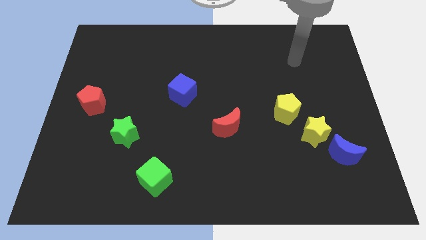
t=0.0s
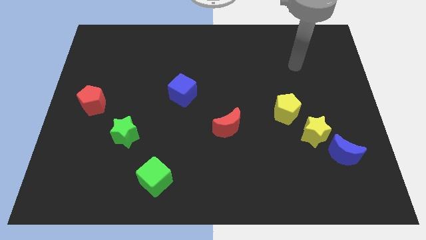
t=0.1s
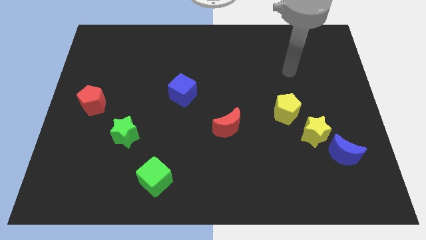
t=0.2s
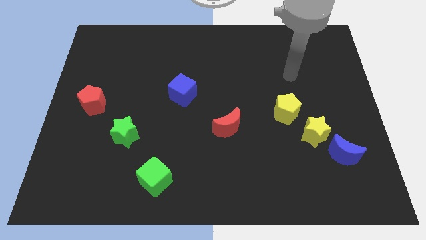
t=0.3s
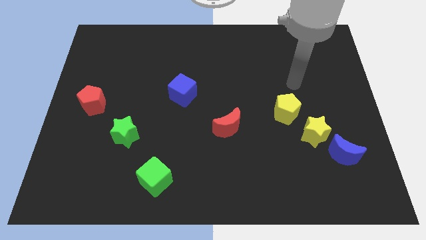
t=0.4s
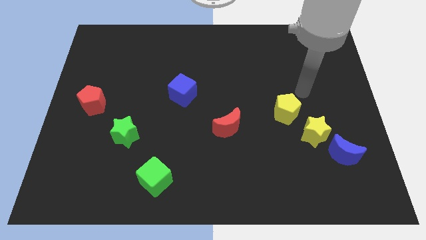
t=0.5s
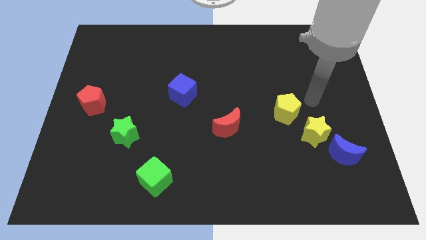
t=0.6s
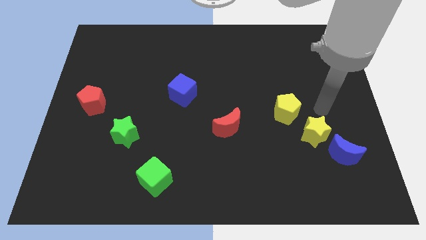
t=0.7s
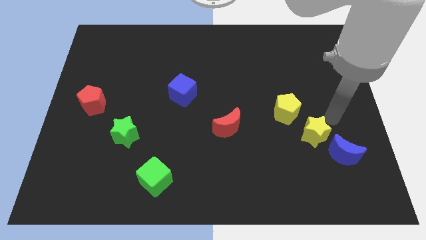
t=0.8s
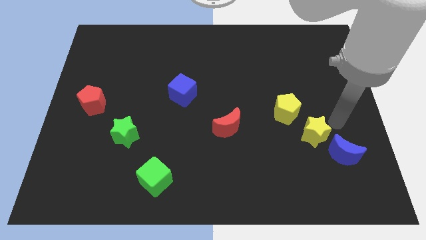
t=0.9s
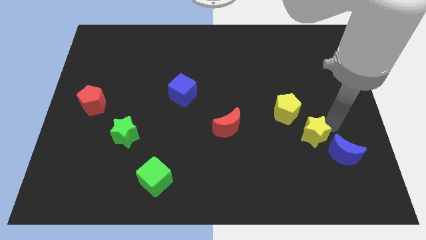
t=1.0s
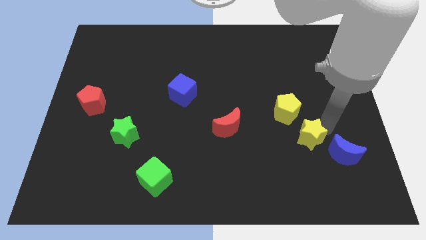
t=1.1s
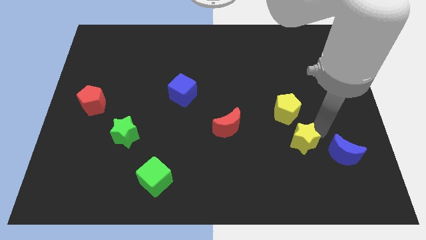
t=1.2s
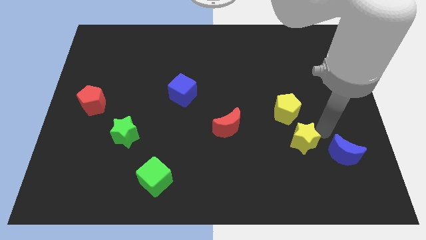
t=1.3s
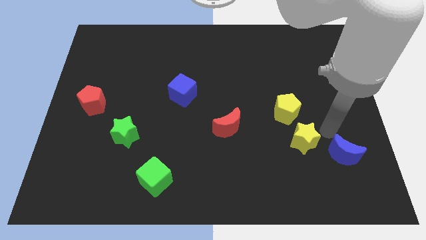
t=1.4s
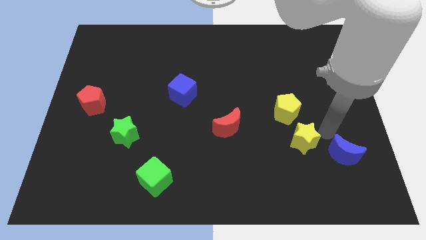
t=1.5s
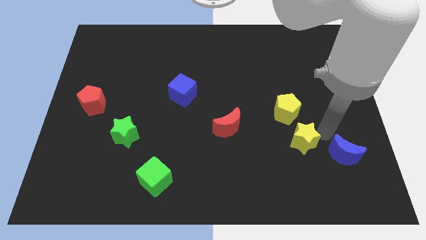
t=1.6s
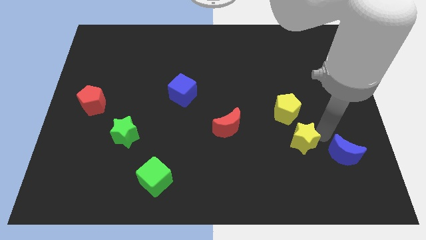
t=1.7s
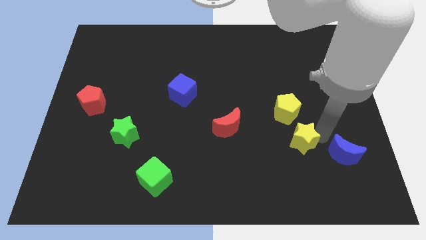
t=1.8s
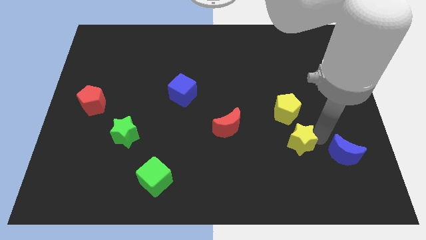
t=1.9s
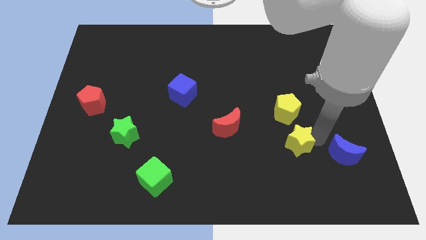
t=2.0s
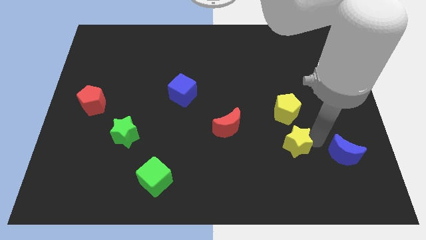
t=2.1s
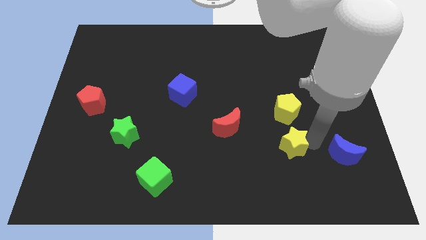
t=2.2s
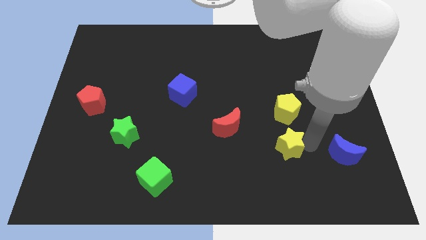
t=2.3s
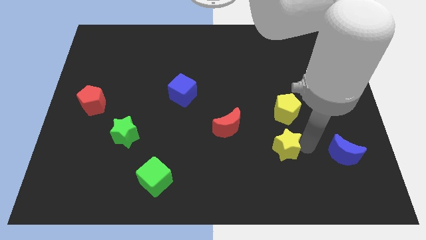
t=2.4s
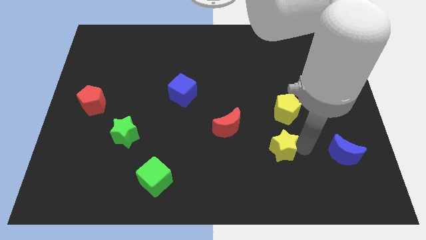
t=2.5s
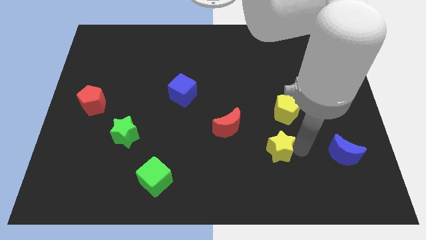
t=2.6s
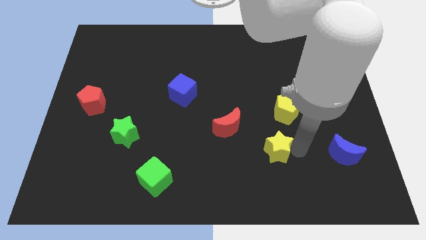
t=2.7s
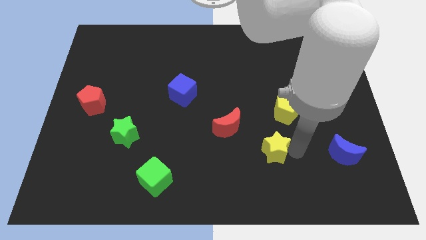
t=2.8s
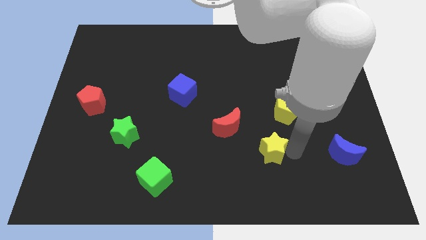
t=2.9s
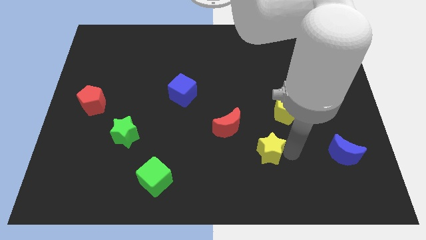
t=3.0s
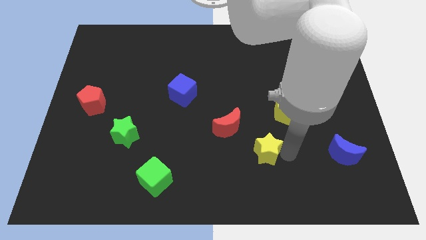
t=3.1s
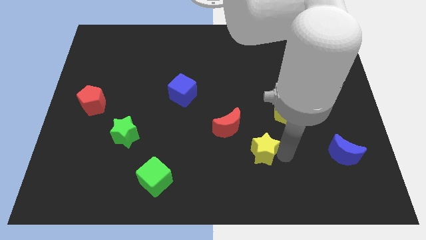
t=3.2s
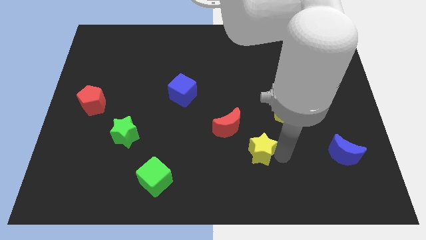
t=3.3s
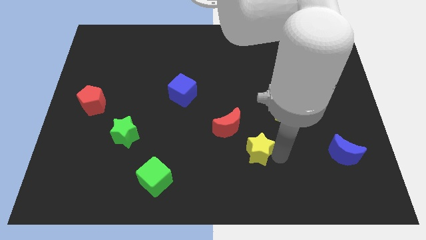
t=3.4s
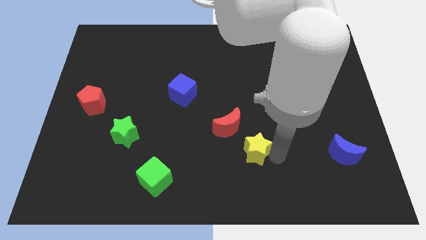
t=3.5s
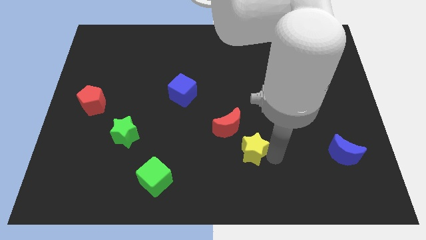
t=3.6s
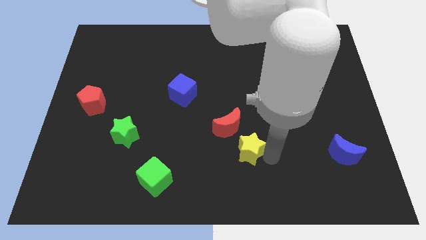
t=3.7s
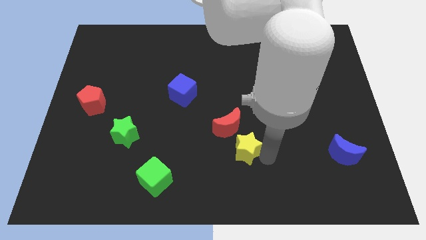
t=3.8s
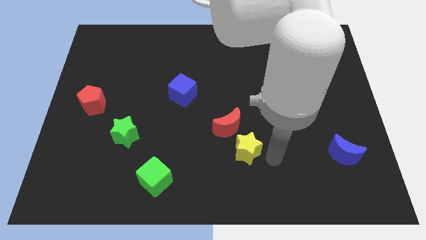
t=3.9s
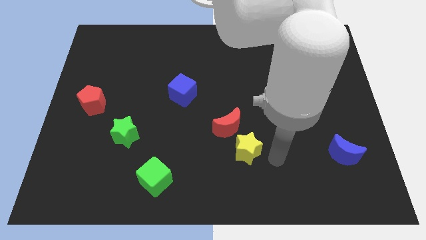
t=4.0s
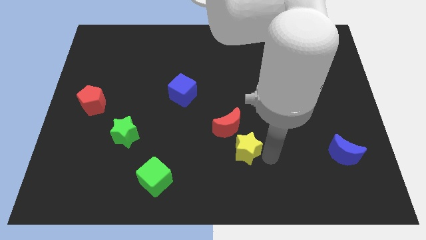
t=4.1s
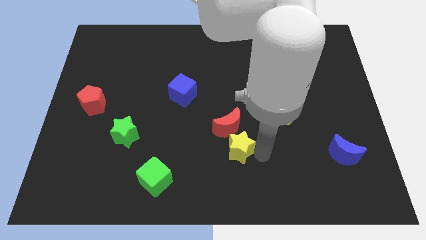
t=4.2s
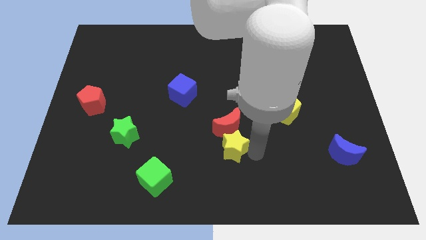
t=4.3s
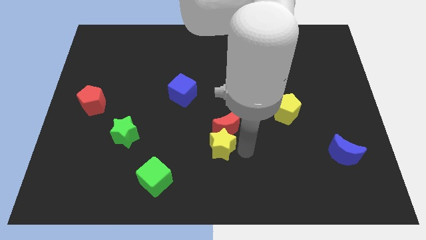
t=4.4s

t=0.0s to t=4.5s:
slide the yellow star left

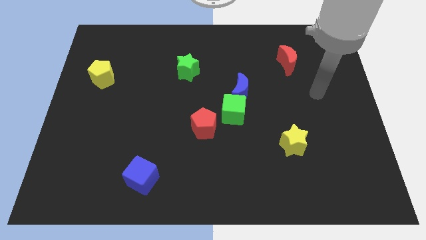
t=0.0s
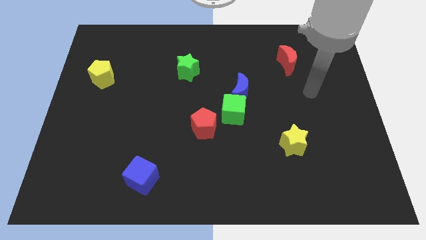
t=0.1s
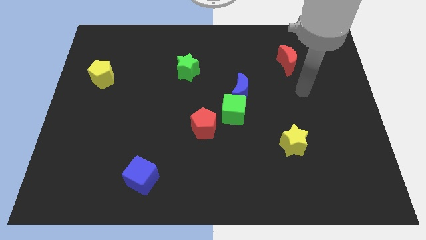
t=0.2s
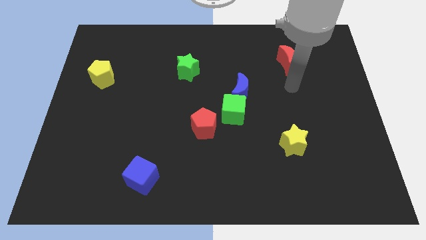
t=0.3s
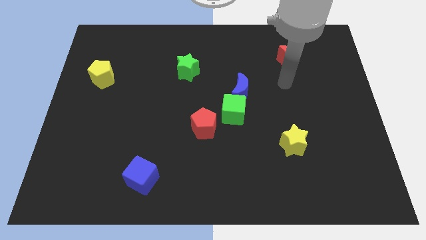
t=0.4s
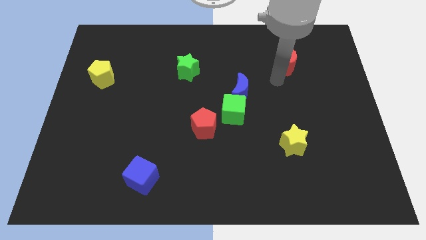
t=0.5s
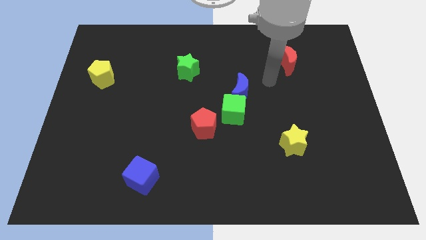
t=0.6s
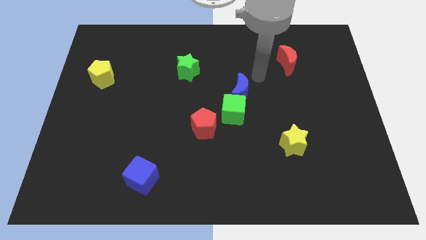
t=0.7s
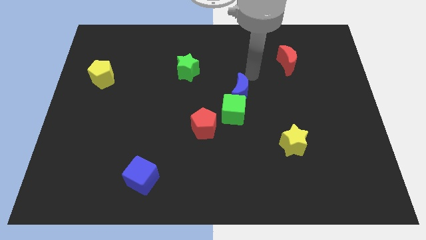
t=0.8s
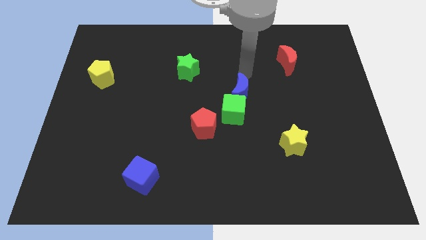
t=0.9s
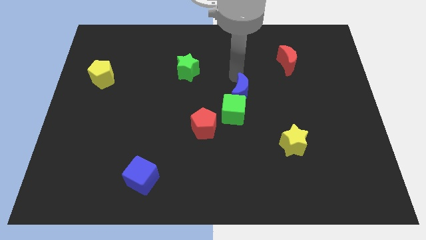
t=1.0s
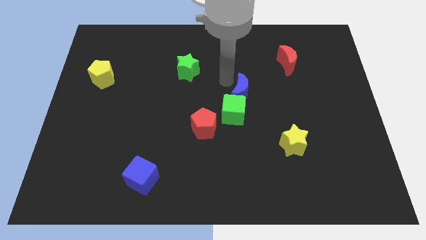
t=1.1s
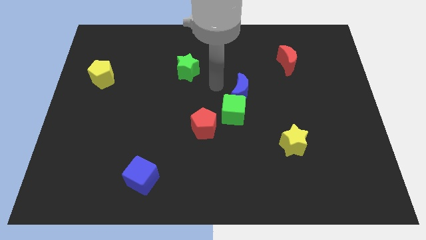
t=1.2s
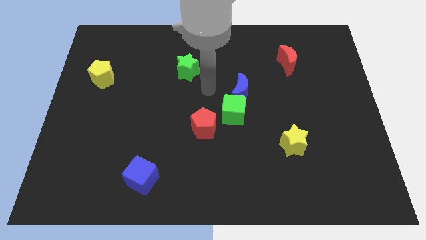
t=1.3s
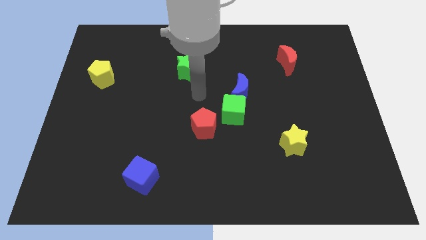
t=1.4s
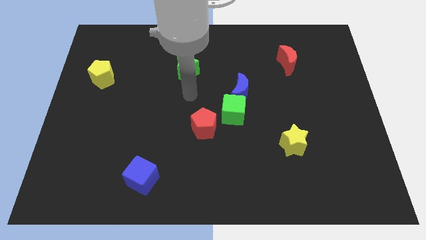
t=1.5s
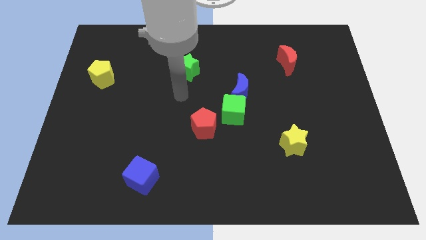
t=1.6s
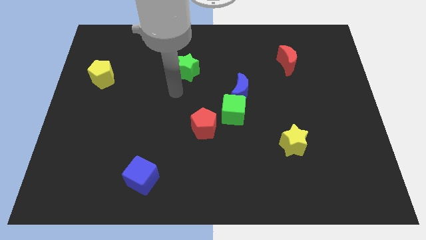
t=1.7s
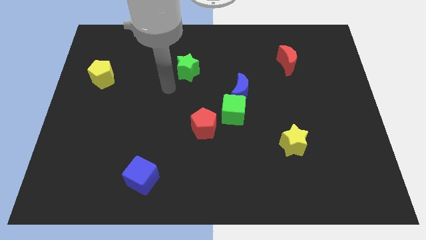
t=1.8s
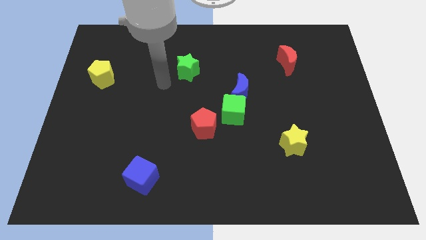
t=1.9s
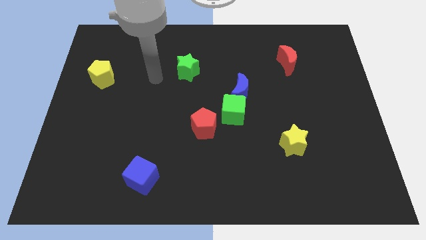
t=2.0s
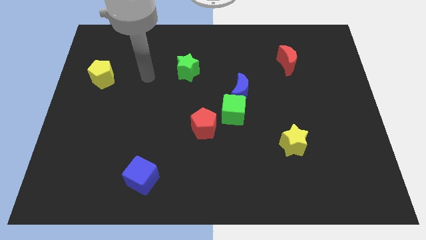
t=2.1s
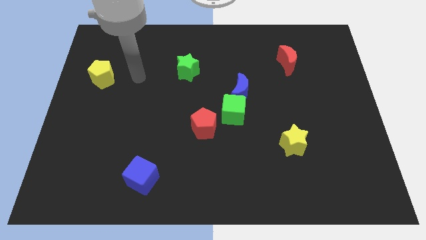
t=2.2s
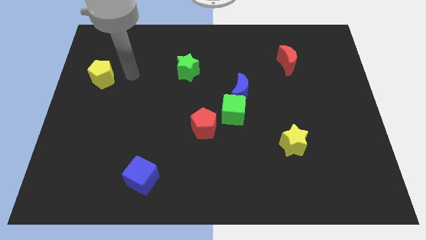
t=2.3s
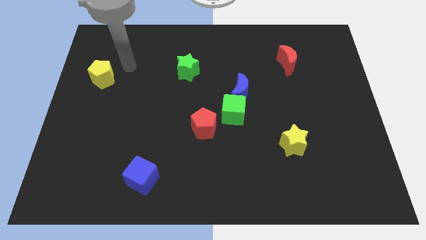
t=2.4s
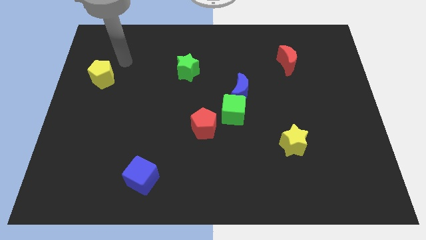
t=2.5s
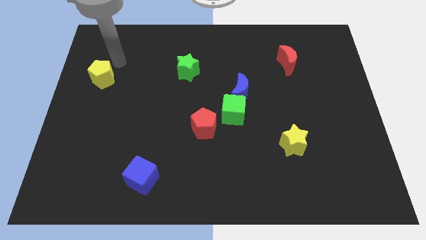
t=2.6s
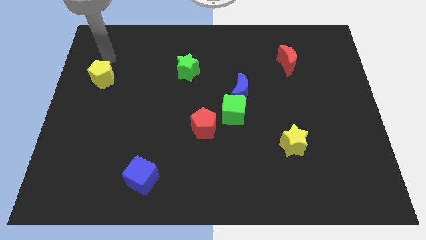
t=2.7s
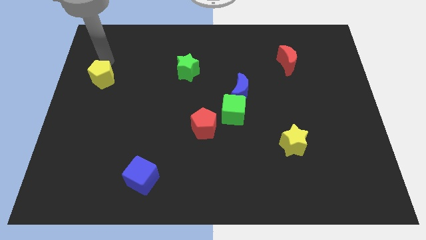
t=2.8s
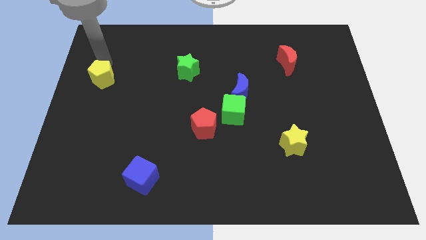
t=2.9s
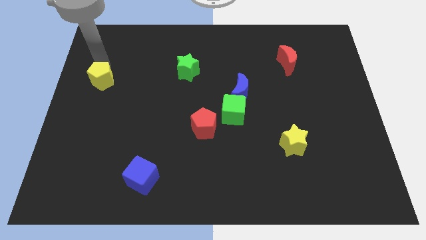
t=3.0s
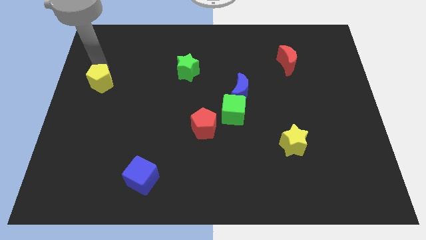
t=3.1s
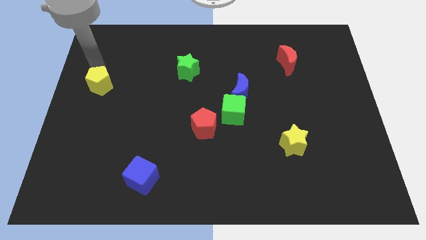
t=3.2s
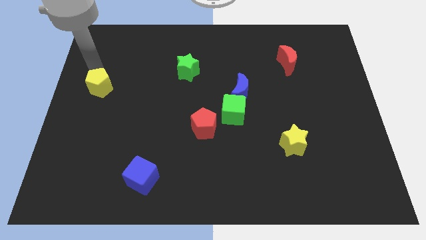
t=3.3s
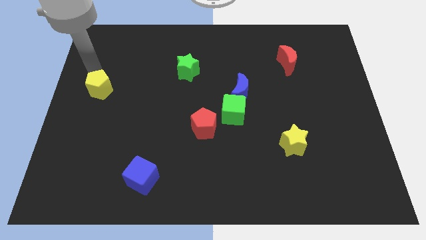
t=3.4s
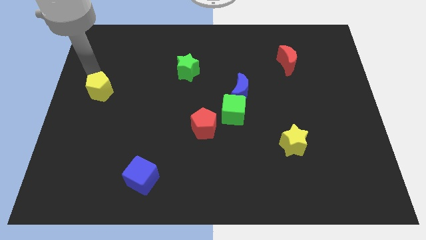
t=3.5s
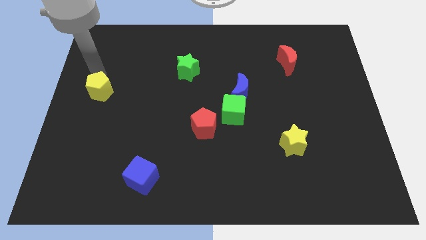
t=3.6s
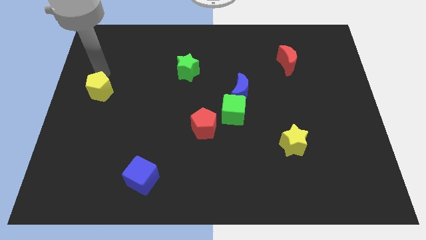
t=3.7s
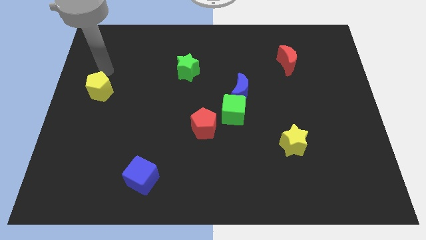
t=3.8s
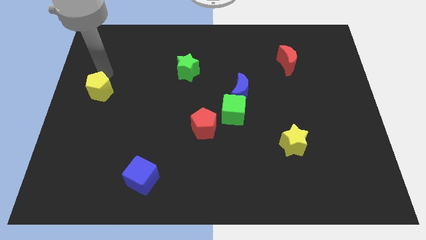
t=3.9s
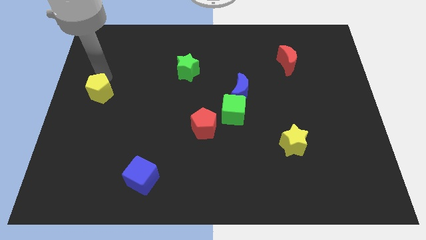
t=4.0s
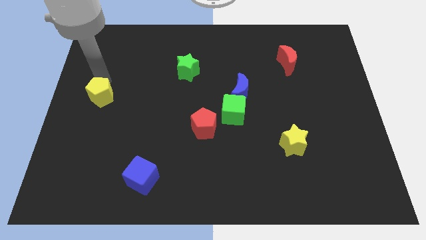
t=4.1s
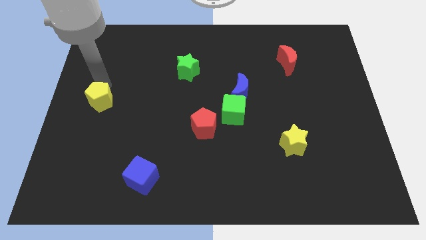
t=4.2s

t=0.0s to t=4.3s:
slide the yellow pentagon downwards somewhat
